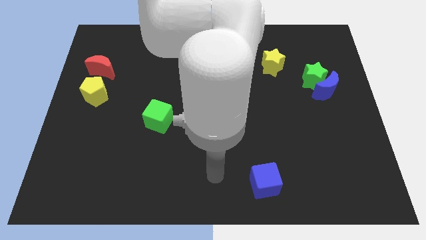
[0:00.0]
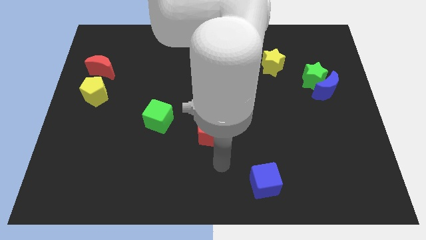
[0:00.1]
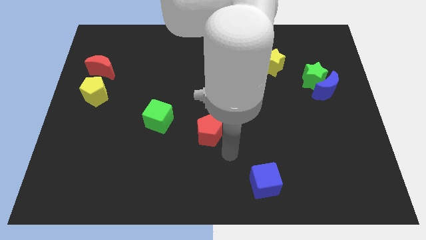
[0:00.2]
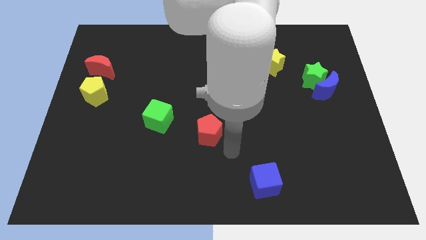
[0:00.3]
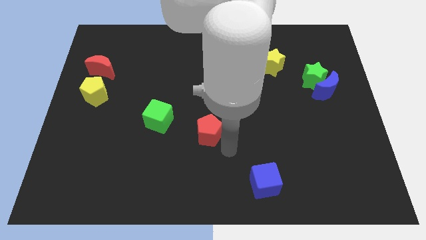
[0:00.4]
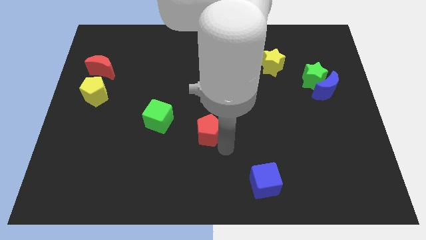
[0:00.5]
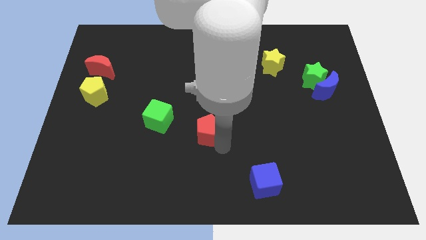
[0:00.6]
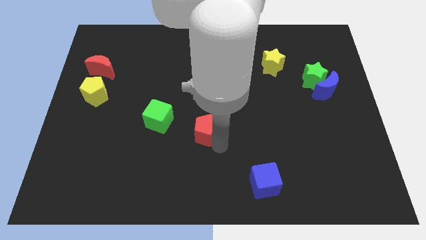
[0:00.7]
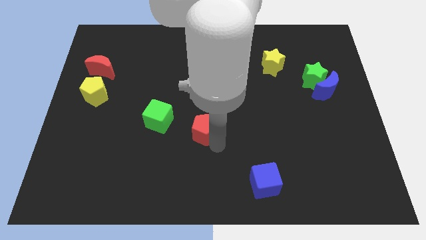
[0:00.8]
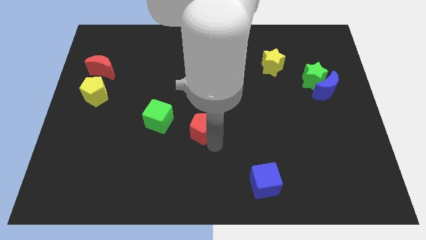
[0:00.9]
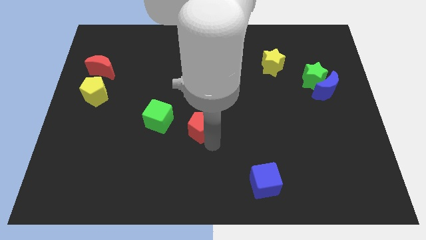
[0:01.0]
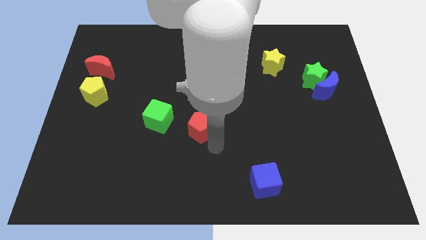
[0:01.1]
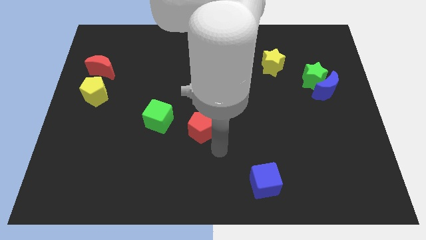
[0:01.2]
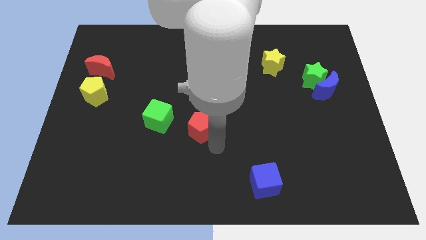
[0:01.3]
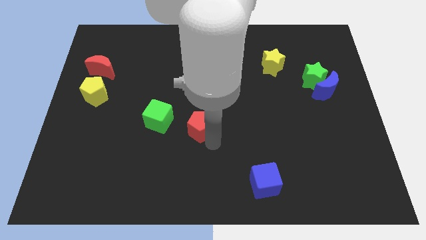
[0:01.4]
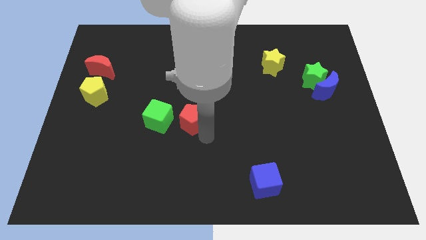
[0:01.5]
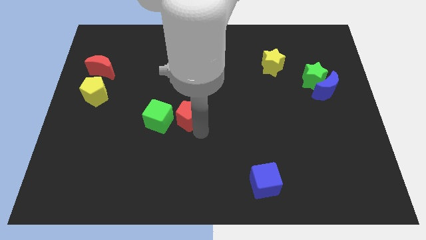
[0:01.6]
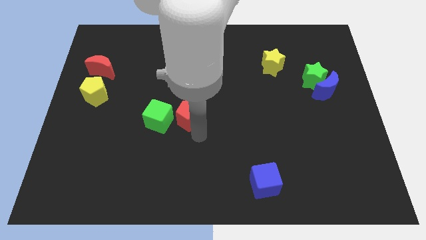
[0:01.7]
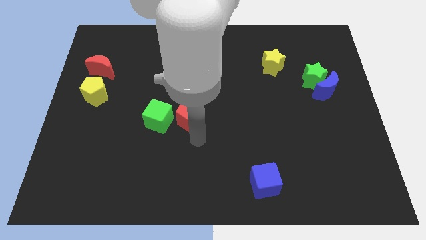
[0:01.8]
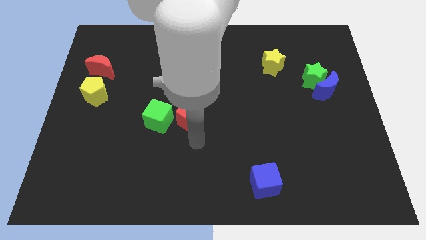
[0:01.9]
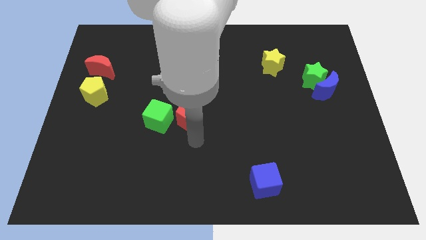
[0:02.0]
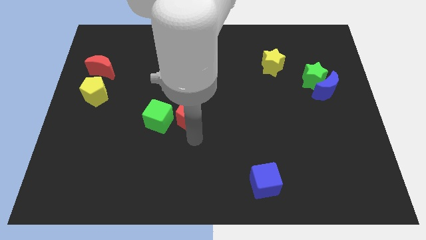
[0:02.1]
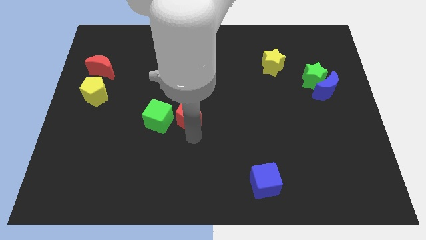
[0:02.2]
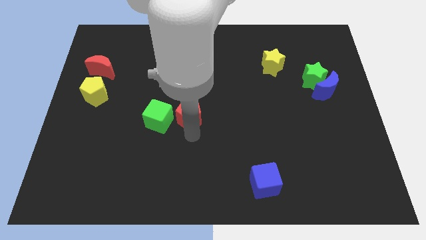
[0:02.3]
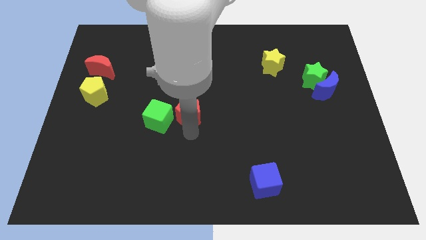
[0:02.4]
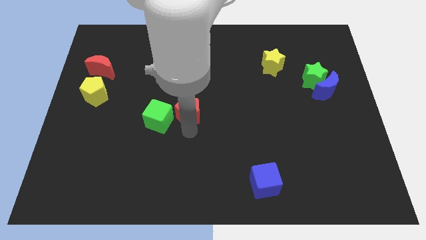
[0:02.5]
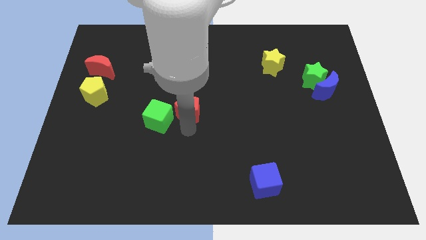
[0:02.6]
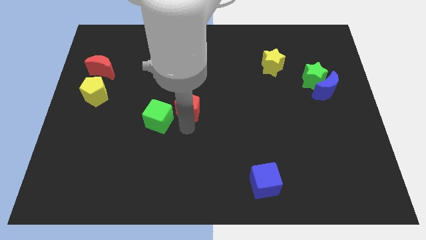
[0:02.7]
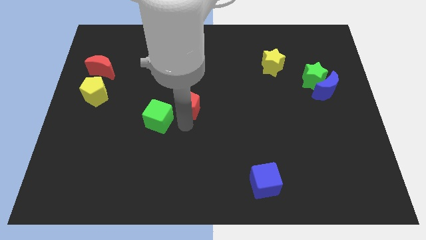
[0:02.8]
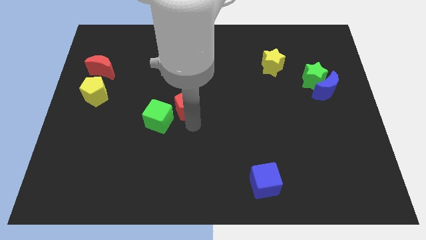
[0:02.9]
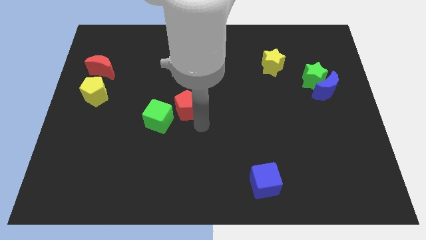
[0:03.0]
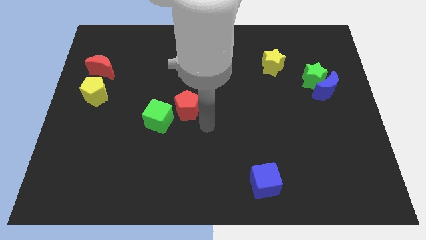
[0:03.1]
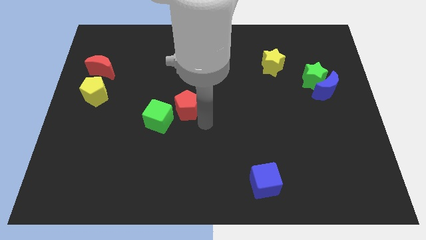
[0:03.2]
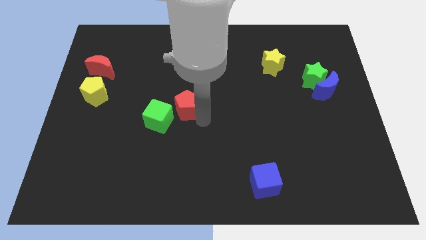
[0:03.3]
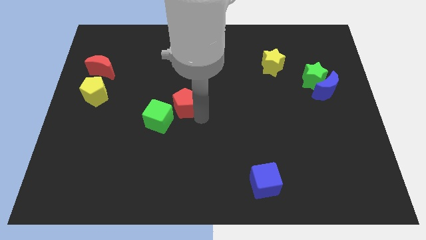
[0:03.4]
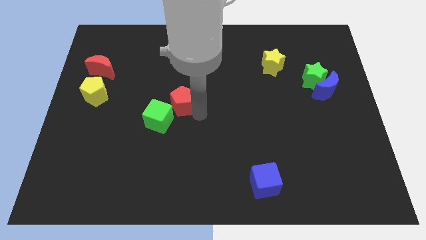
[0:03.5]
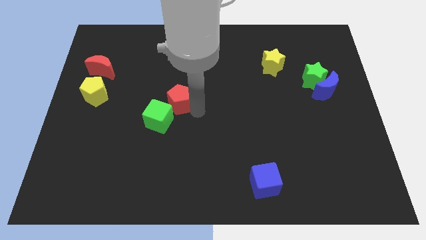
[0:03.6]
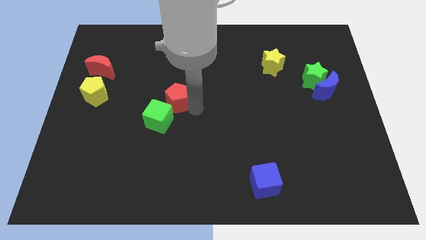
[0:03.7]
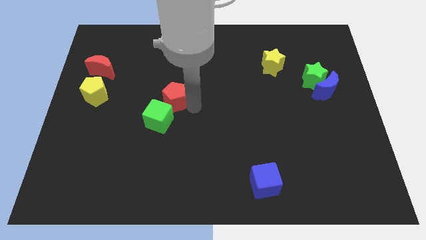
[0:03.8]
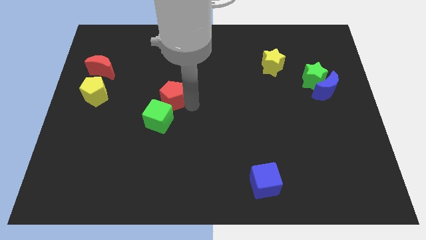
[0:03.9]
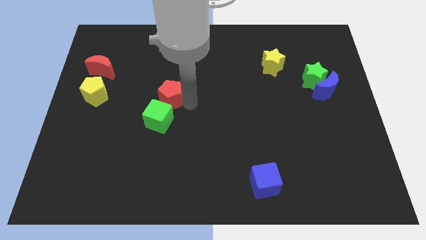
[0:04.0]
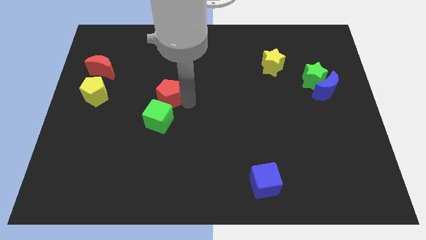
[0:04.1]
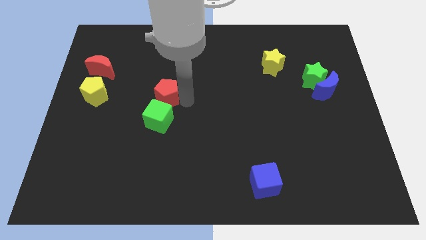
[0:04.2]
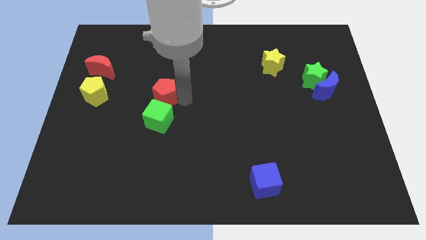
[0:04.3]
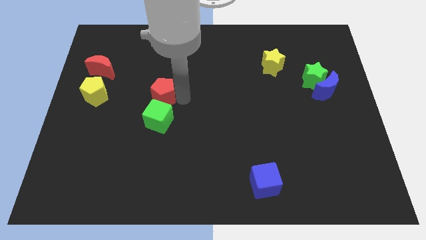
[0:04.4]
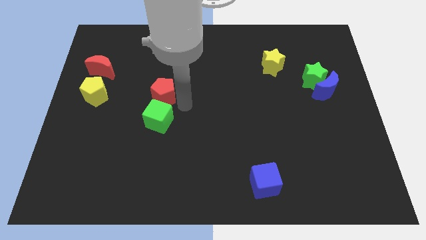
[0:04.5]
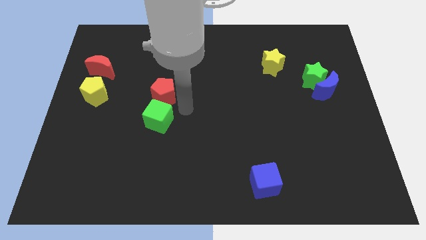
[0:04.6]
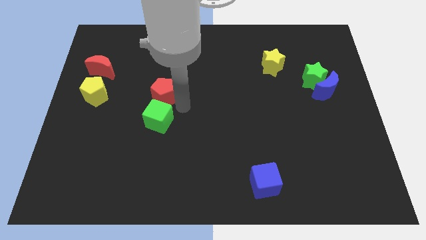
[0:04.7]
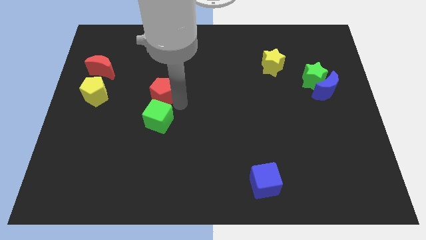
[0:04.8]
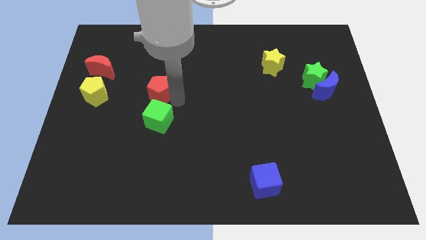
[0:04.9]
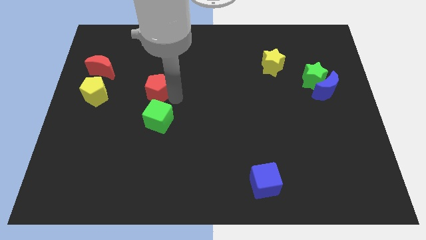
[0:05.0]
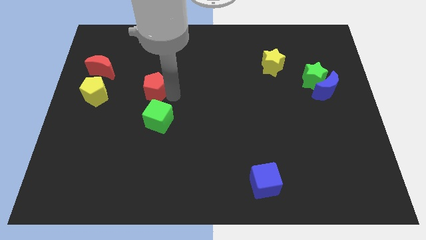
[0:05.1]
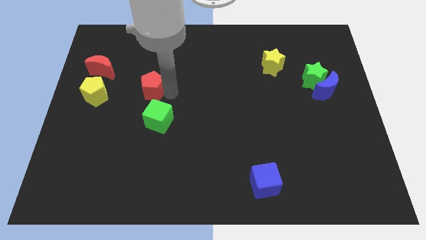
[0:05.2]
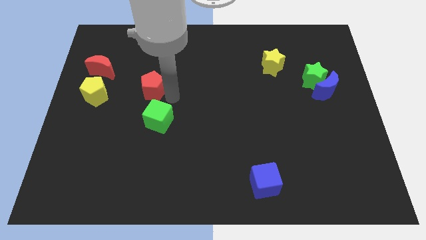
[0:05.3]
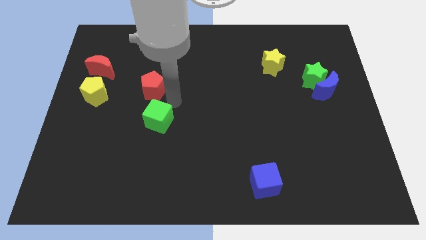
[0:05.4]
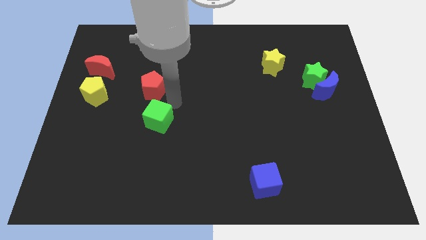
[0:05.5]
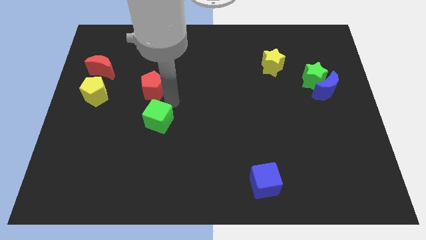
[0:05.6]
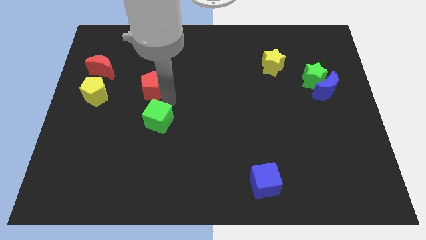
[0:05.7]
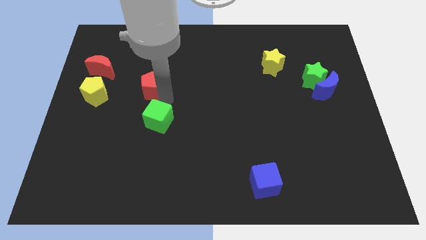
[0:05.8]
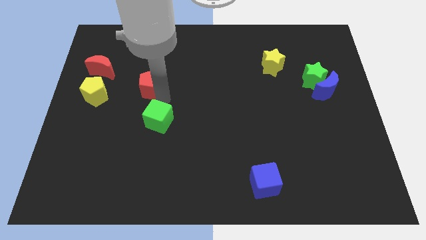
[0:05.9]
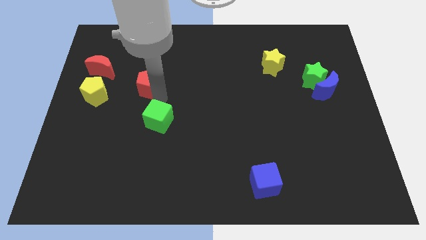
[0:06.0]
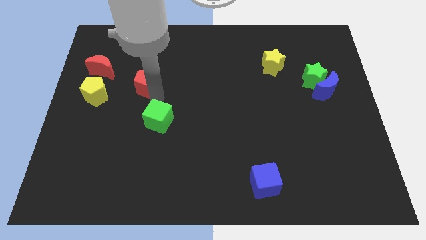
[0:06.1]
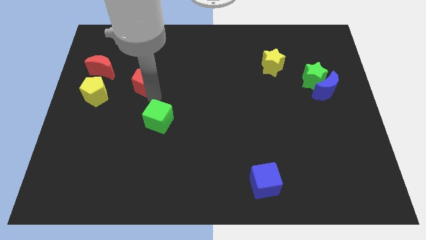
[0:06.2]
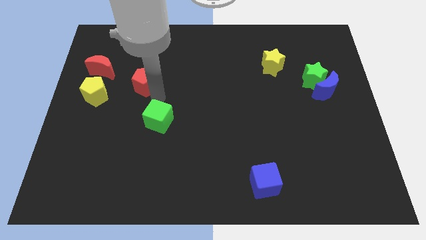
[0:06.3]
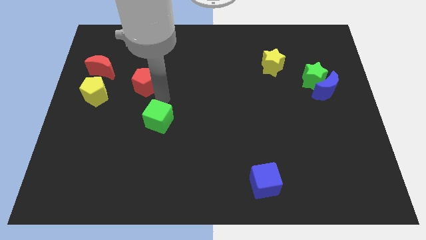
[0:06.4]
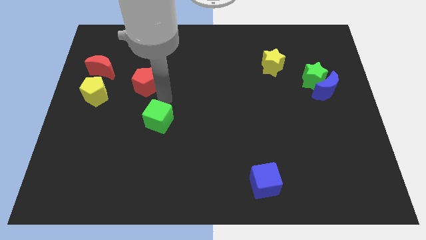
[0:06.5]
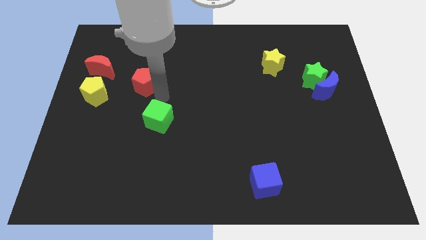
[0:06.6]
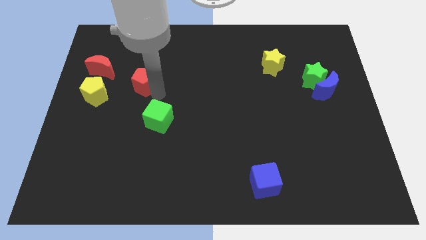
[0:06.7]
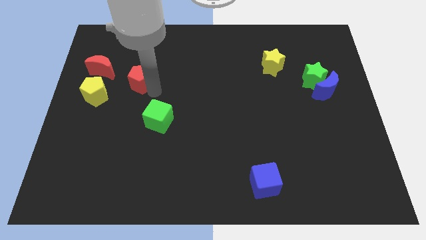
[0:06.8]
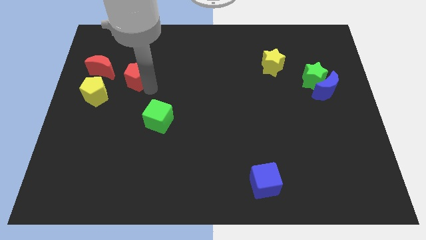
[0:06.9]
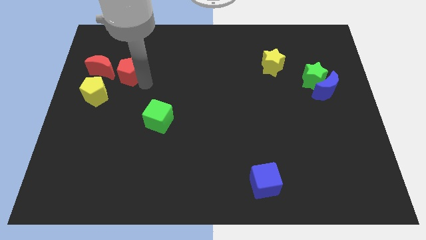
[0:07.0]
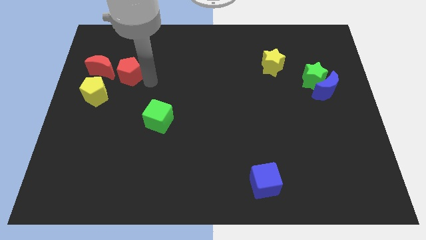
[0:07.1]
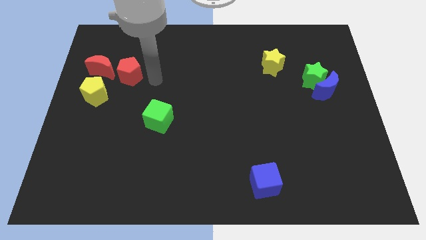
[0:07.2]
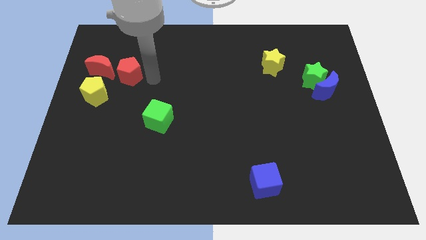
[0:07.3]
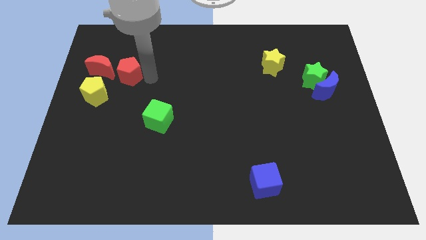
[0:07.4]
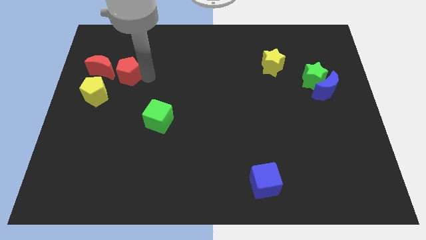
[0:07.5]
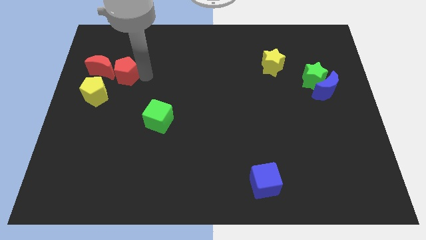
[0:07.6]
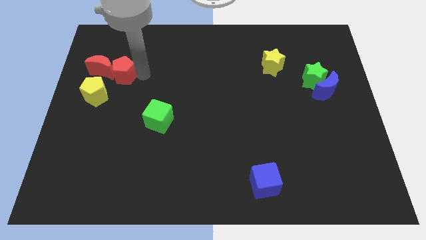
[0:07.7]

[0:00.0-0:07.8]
put the red pentagon to the red moon
